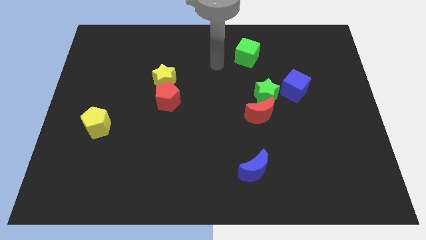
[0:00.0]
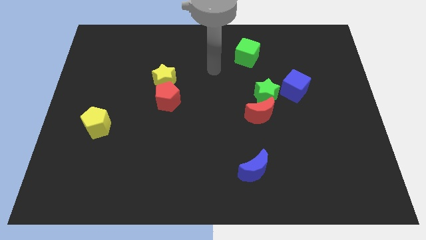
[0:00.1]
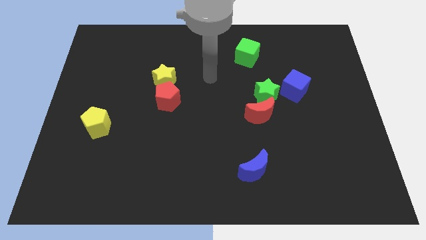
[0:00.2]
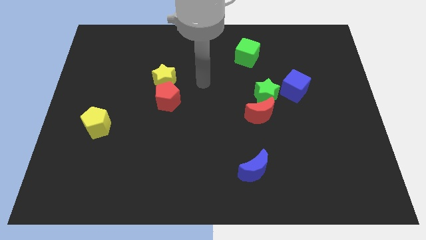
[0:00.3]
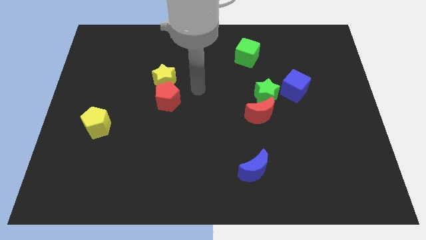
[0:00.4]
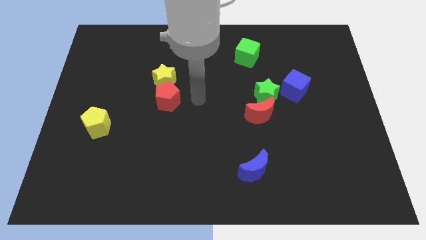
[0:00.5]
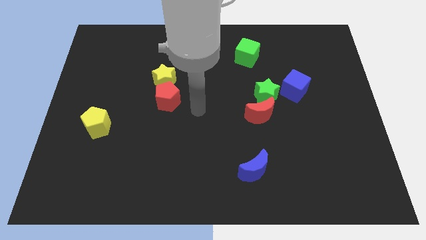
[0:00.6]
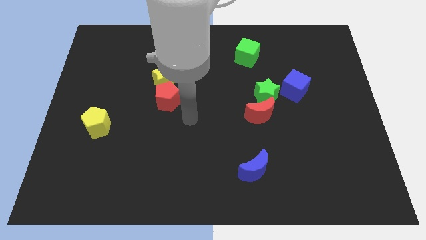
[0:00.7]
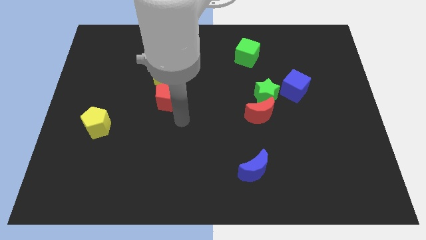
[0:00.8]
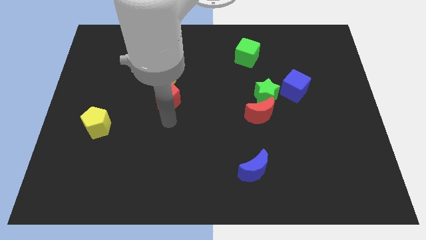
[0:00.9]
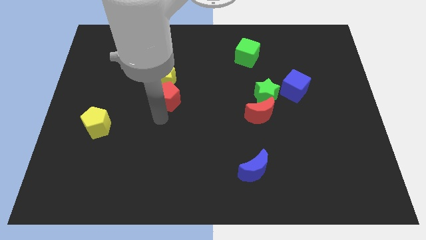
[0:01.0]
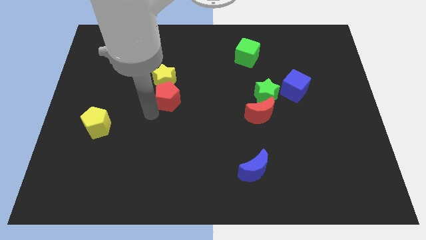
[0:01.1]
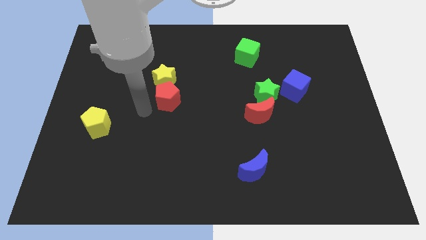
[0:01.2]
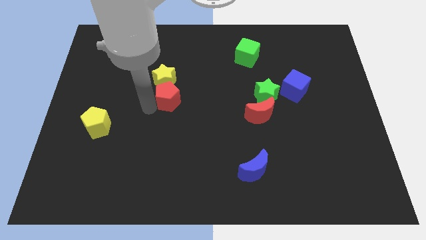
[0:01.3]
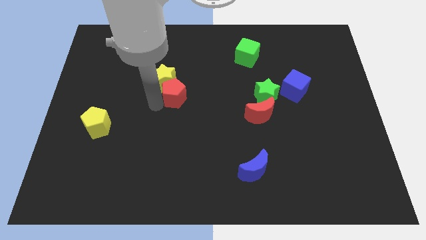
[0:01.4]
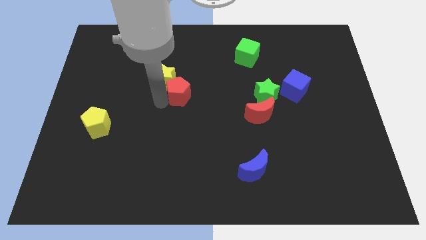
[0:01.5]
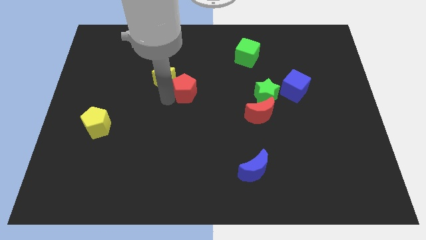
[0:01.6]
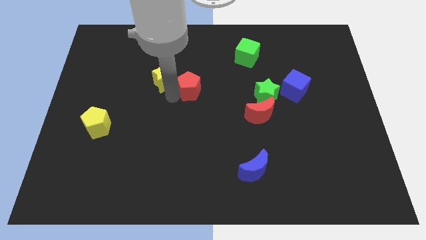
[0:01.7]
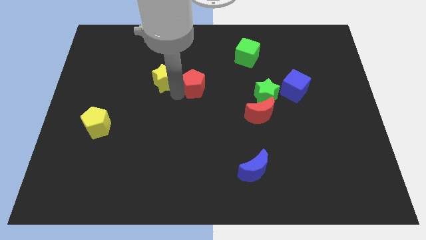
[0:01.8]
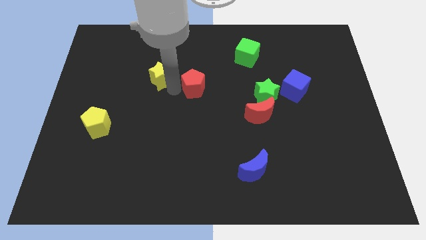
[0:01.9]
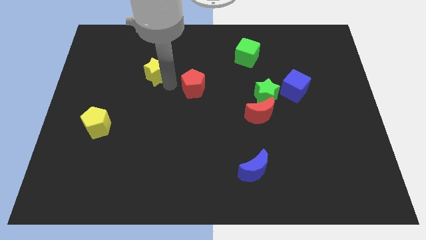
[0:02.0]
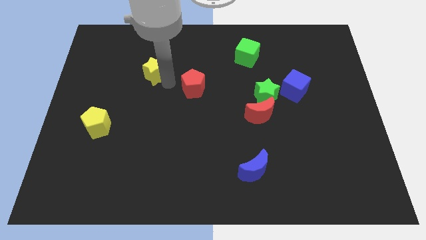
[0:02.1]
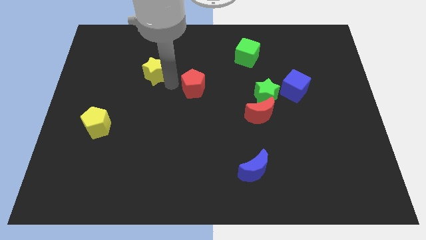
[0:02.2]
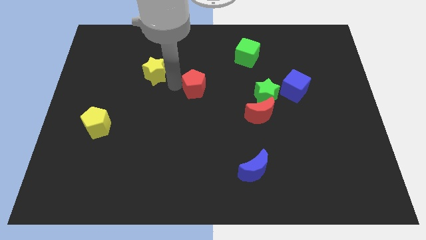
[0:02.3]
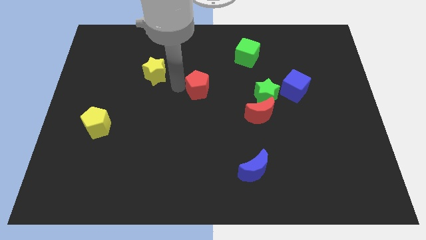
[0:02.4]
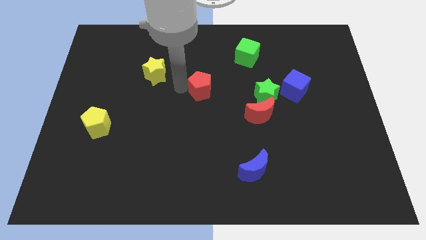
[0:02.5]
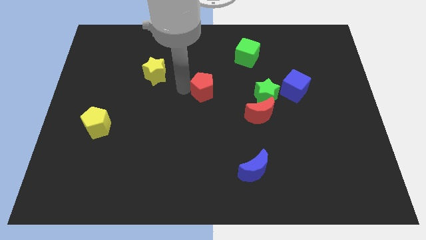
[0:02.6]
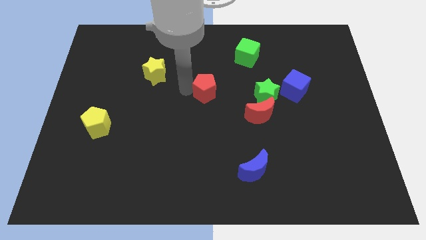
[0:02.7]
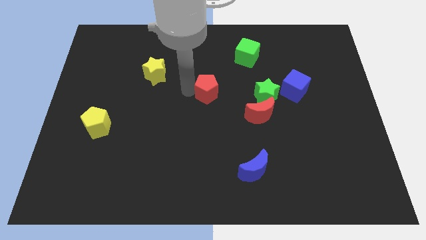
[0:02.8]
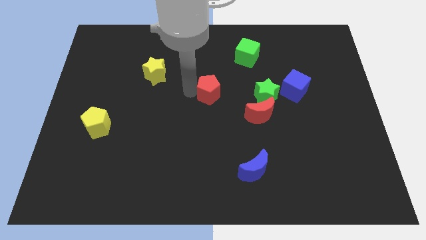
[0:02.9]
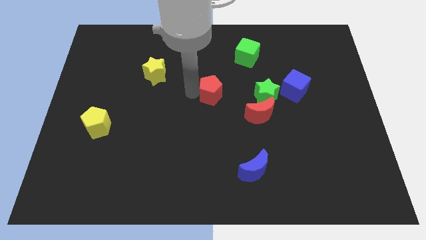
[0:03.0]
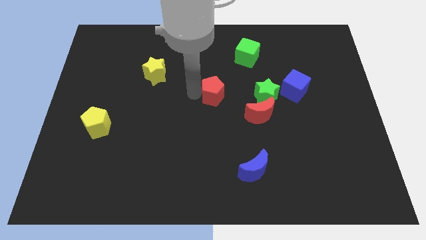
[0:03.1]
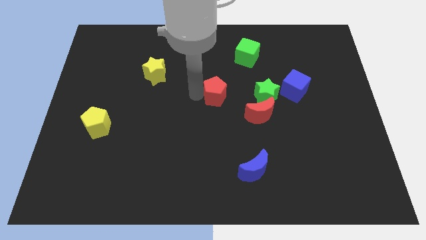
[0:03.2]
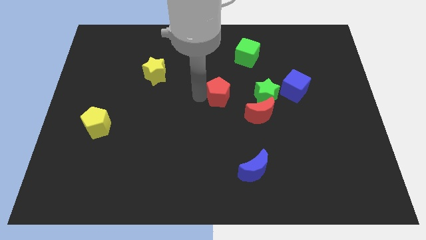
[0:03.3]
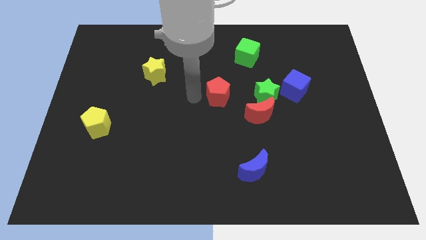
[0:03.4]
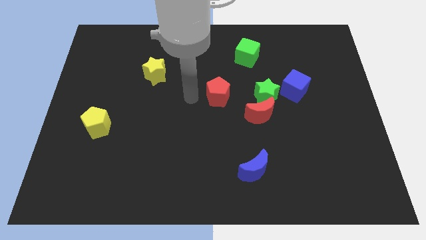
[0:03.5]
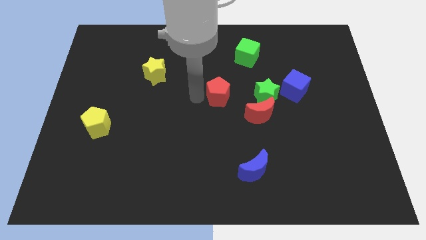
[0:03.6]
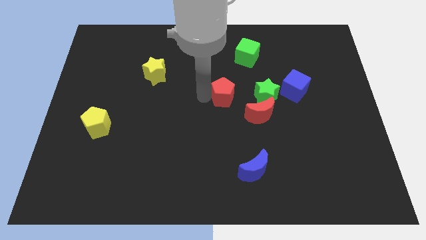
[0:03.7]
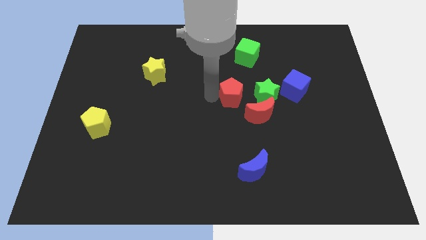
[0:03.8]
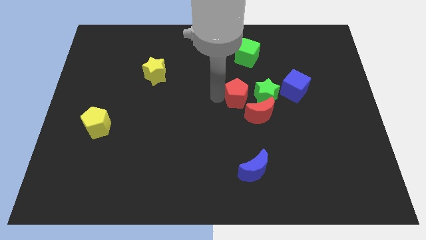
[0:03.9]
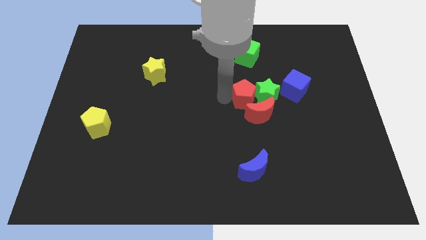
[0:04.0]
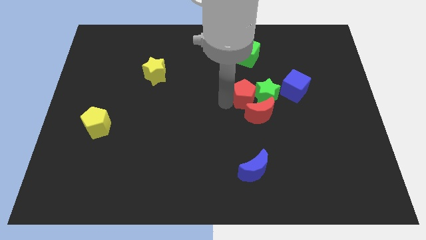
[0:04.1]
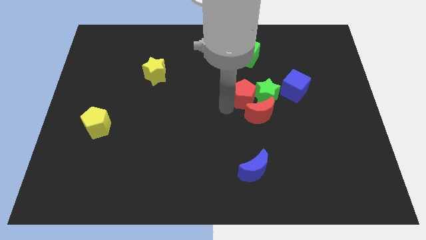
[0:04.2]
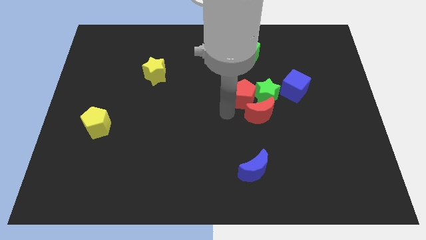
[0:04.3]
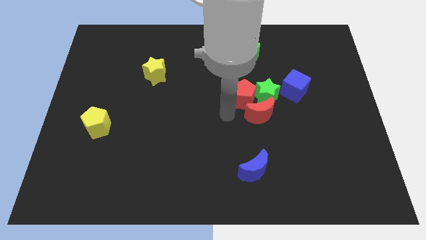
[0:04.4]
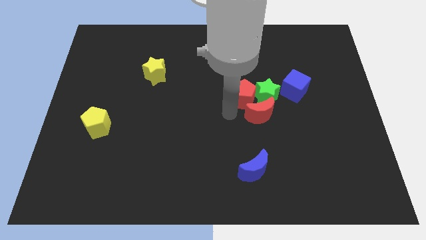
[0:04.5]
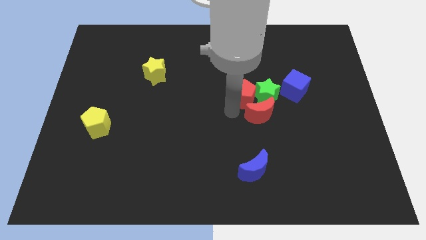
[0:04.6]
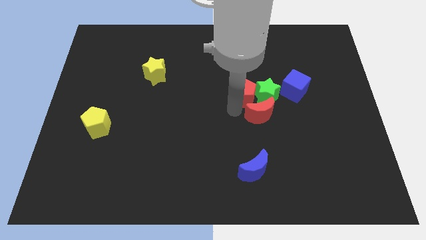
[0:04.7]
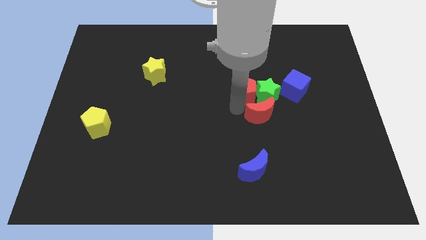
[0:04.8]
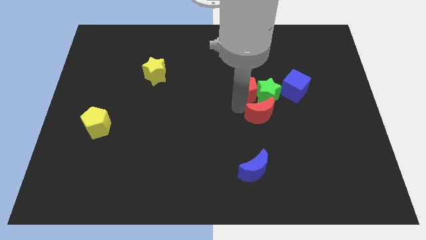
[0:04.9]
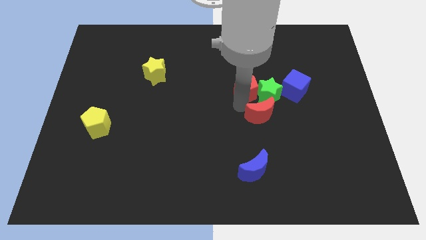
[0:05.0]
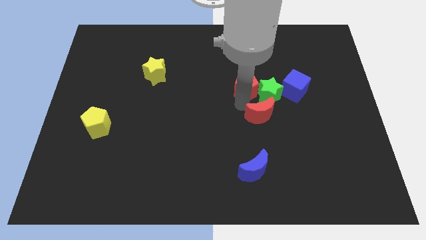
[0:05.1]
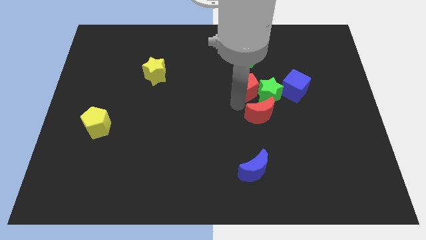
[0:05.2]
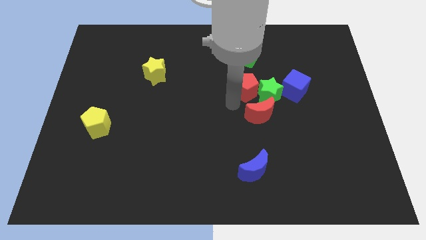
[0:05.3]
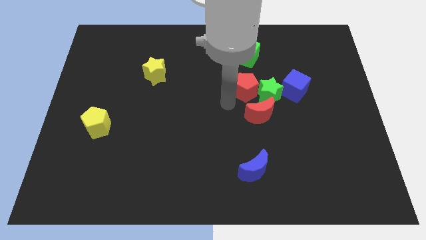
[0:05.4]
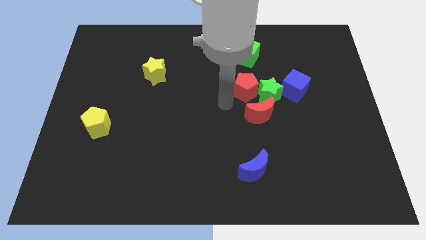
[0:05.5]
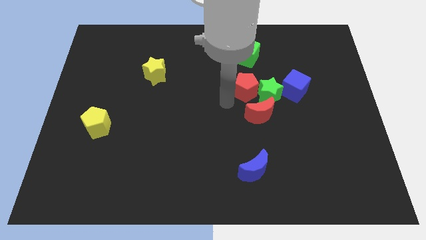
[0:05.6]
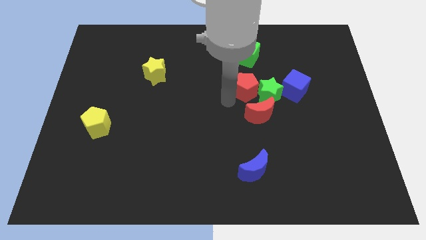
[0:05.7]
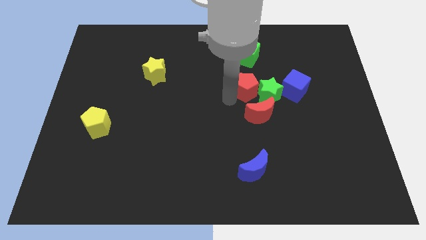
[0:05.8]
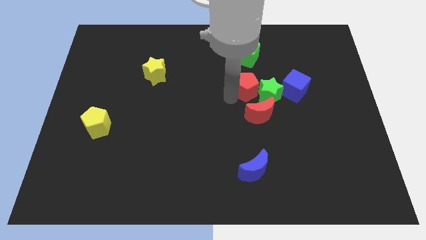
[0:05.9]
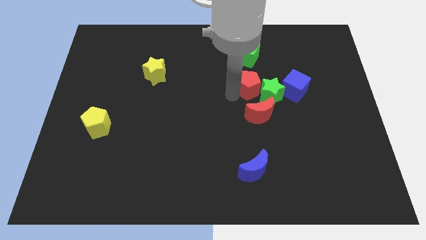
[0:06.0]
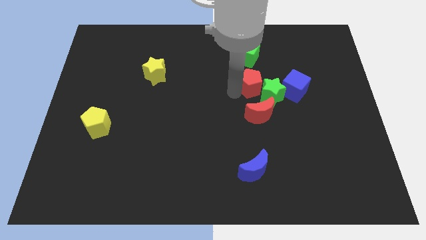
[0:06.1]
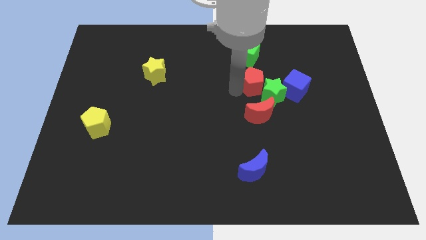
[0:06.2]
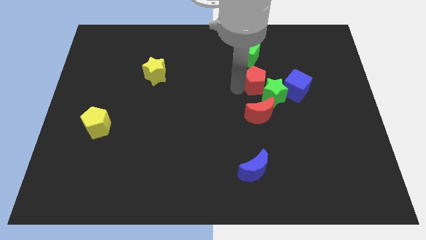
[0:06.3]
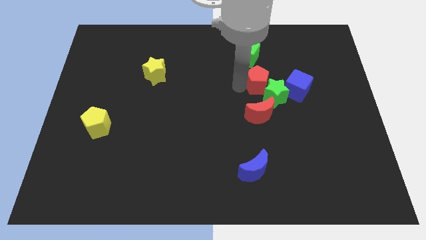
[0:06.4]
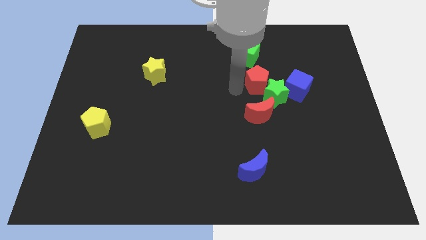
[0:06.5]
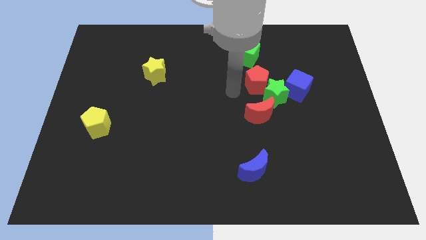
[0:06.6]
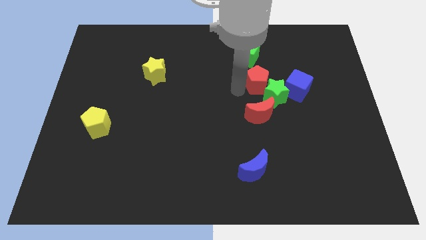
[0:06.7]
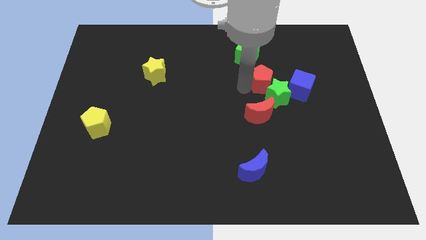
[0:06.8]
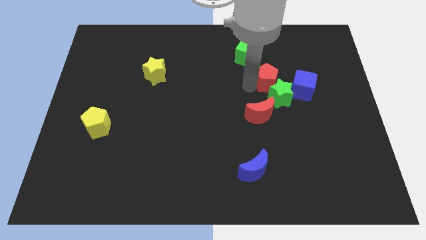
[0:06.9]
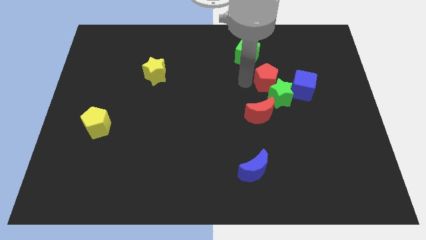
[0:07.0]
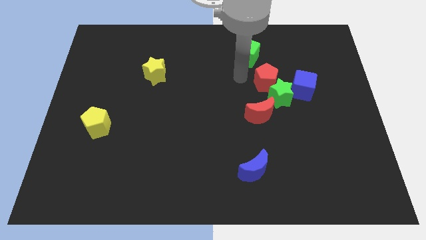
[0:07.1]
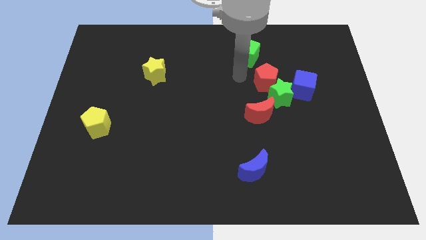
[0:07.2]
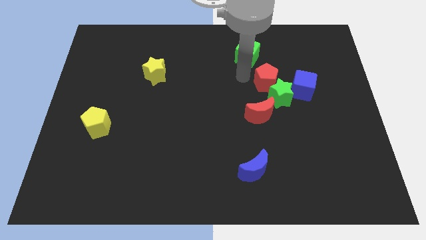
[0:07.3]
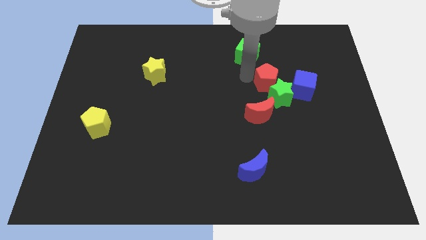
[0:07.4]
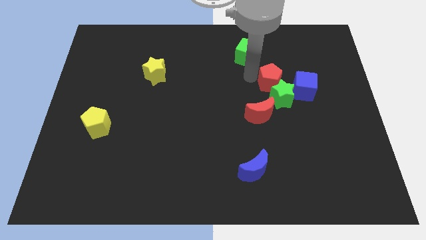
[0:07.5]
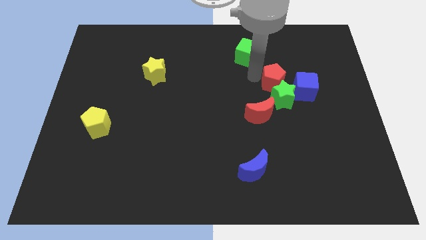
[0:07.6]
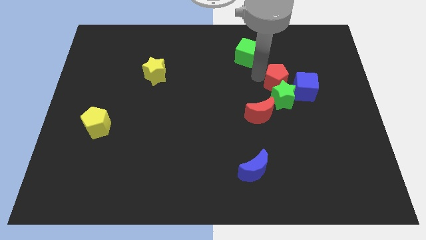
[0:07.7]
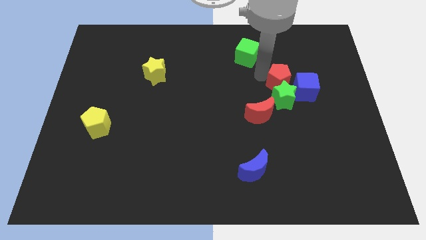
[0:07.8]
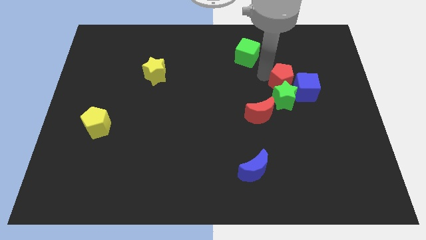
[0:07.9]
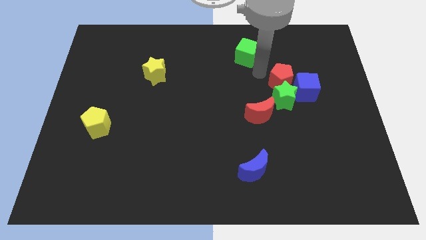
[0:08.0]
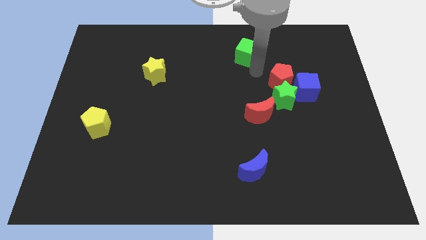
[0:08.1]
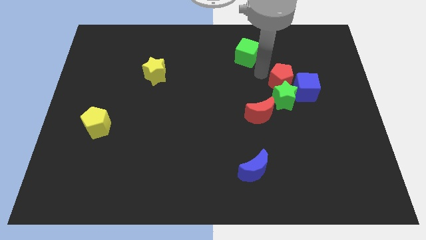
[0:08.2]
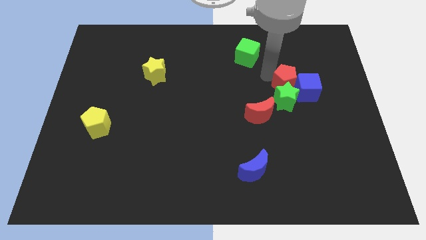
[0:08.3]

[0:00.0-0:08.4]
put the red pentagon next to the blue cube

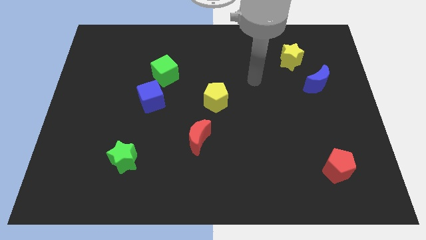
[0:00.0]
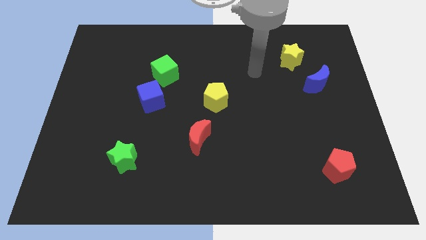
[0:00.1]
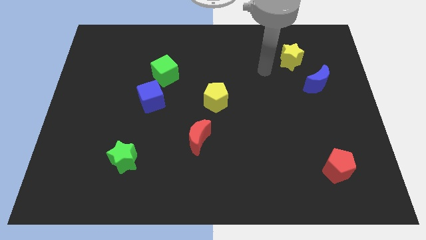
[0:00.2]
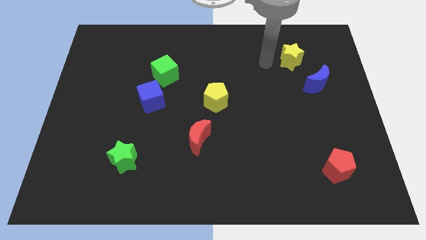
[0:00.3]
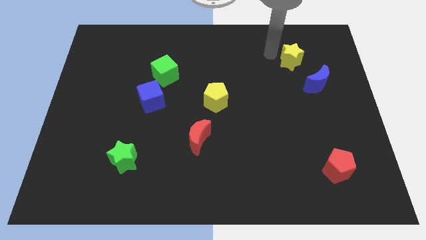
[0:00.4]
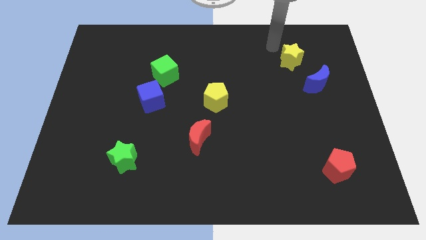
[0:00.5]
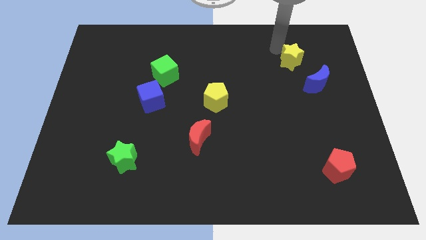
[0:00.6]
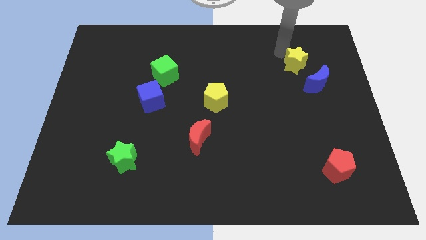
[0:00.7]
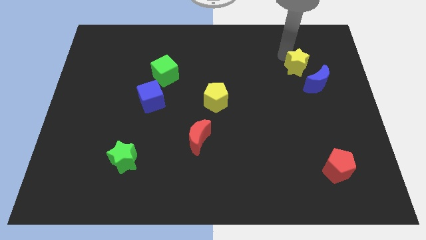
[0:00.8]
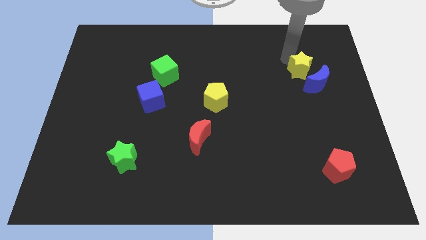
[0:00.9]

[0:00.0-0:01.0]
push the yellow star close to the blue moon
